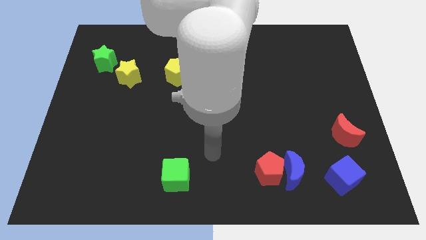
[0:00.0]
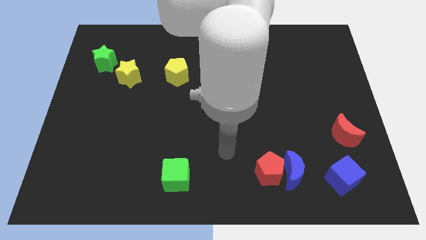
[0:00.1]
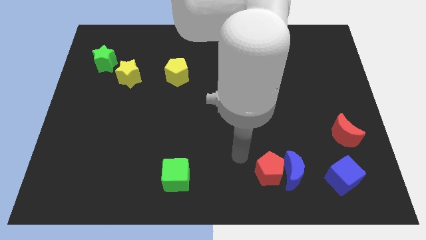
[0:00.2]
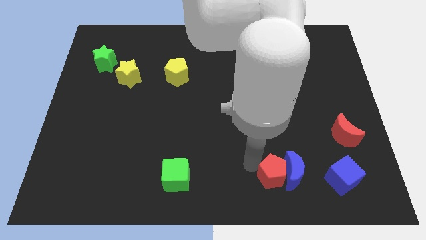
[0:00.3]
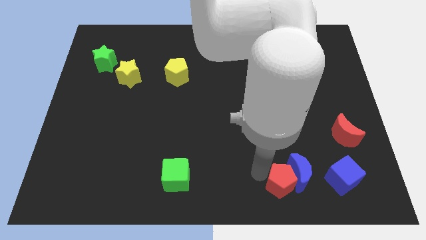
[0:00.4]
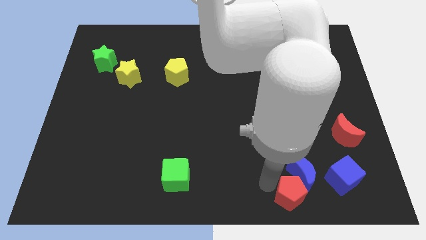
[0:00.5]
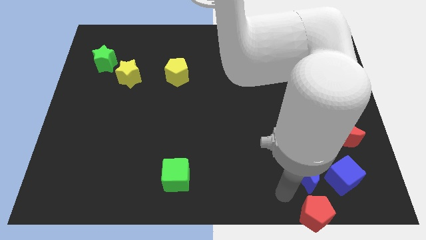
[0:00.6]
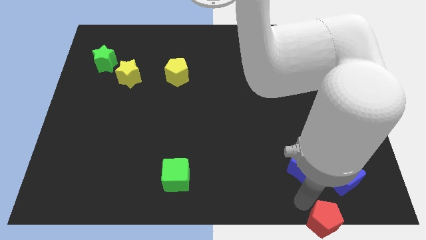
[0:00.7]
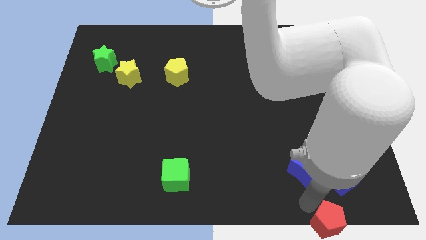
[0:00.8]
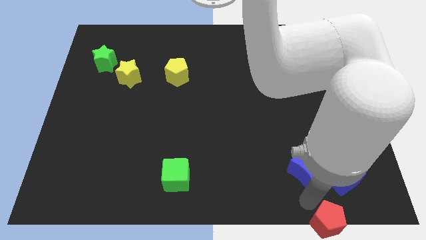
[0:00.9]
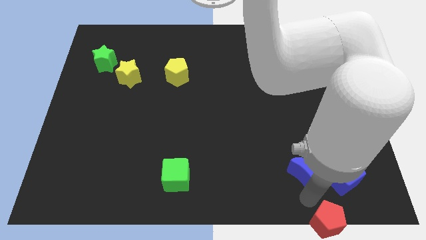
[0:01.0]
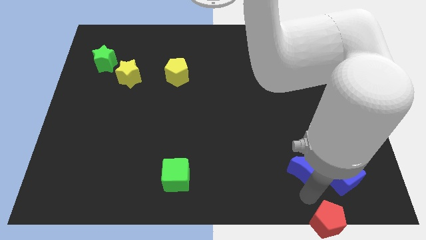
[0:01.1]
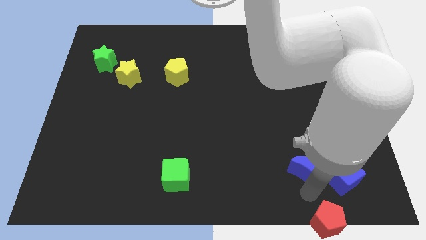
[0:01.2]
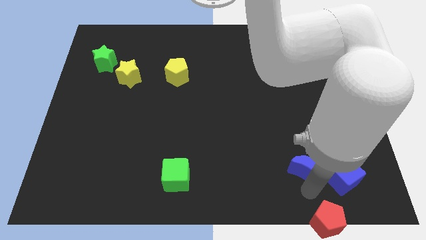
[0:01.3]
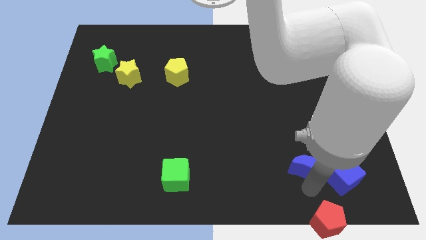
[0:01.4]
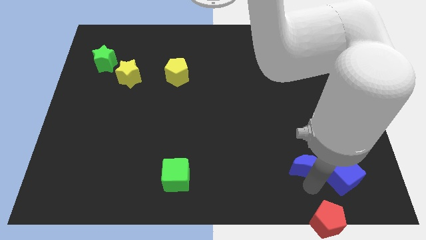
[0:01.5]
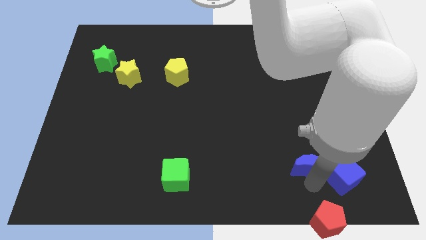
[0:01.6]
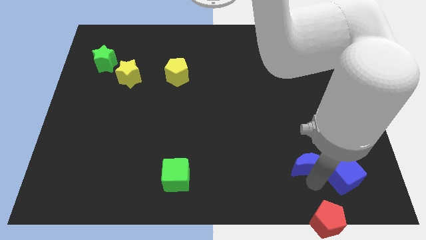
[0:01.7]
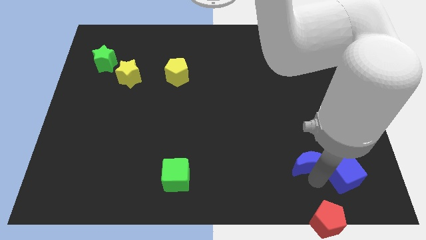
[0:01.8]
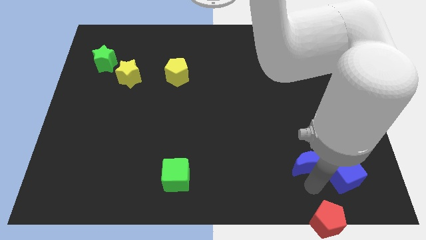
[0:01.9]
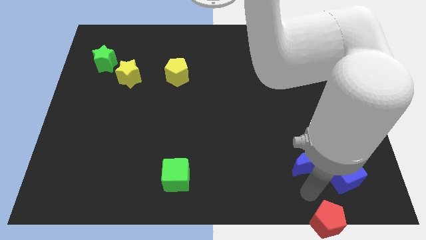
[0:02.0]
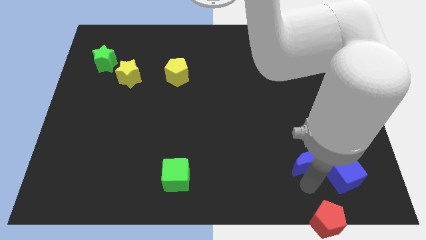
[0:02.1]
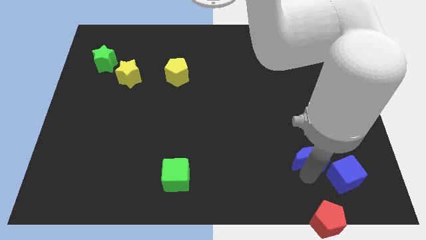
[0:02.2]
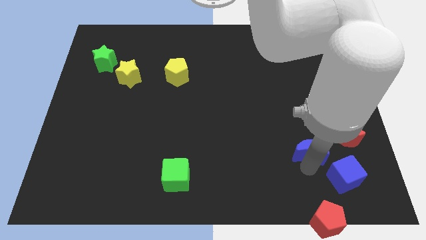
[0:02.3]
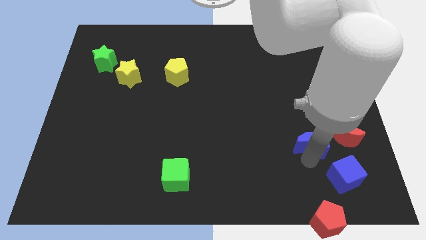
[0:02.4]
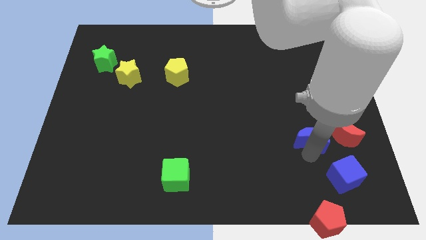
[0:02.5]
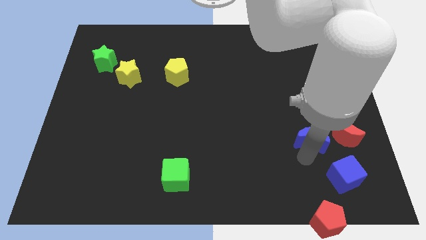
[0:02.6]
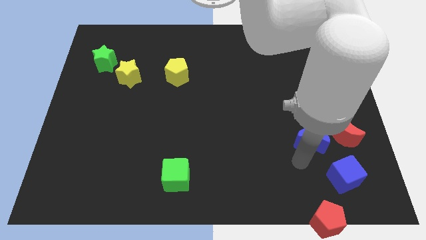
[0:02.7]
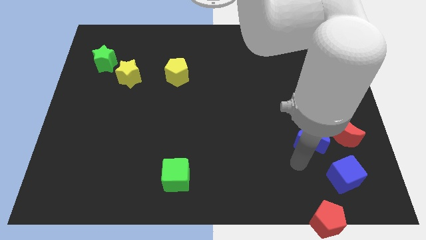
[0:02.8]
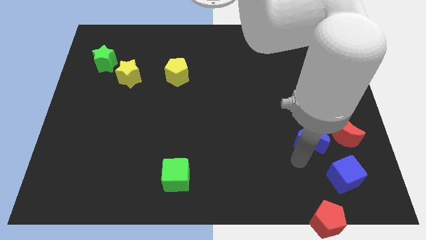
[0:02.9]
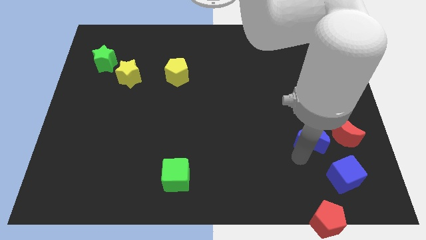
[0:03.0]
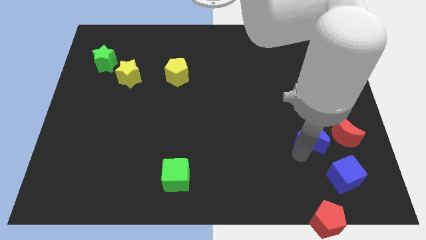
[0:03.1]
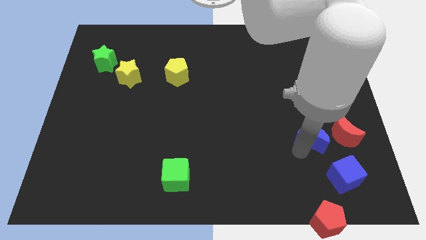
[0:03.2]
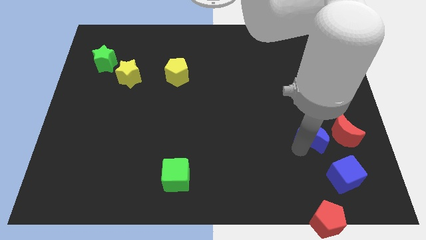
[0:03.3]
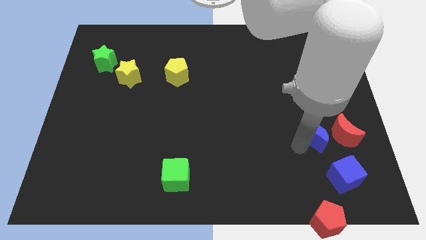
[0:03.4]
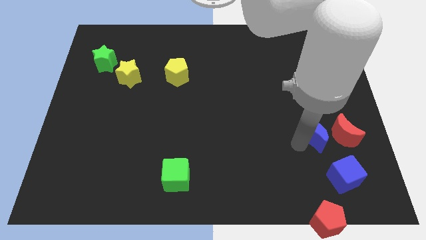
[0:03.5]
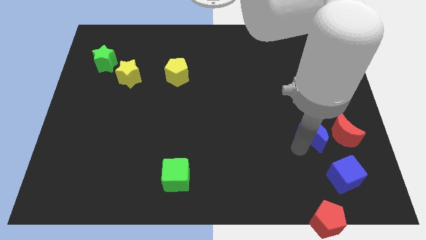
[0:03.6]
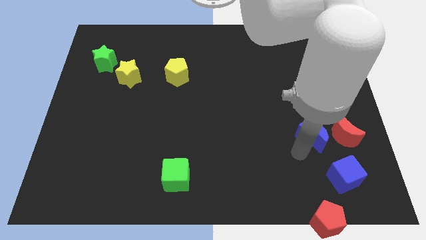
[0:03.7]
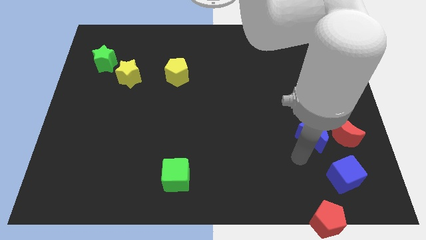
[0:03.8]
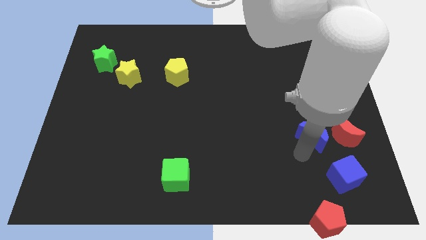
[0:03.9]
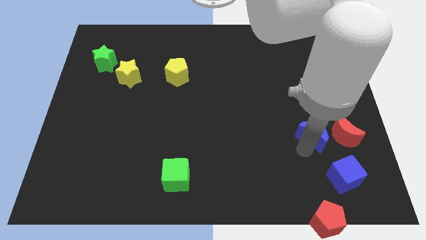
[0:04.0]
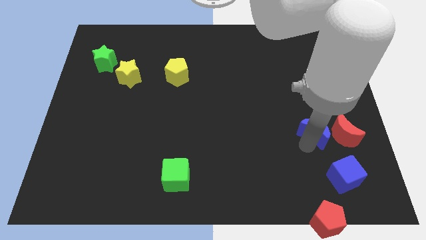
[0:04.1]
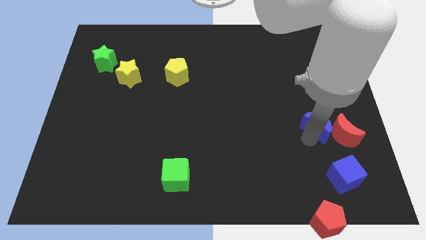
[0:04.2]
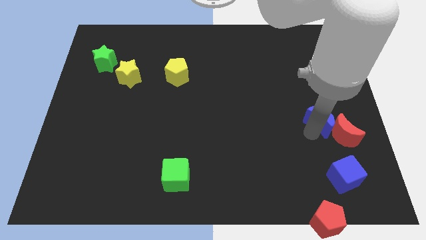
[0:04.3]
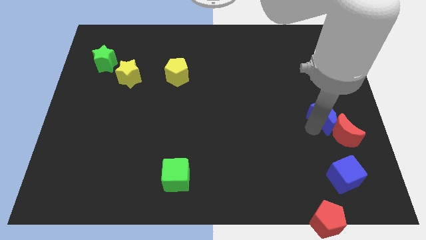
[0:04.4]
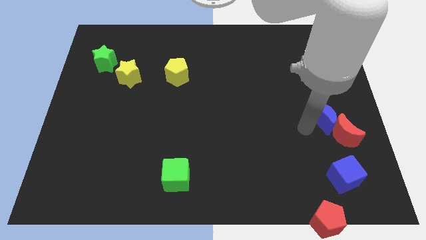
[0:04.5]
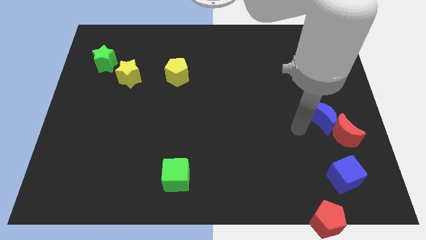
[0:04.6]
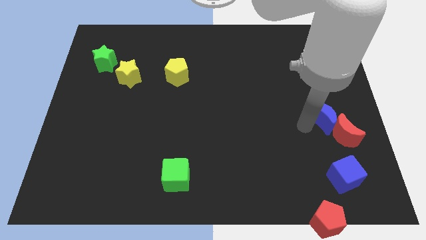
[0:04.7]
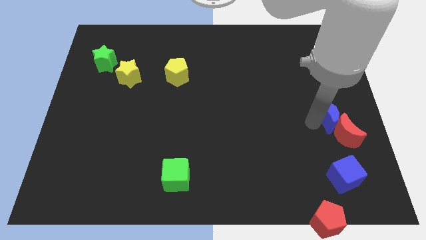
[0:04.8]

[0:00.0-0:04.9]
move the blue moon to the center right

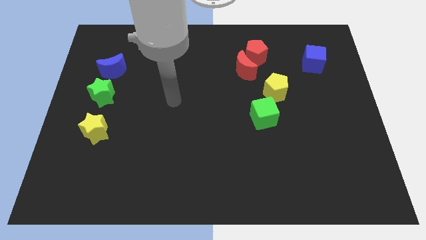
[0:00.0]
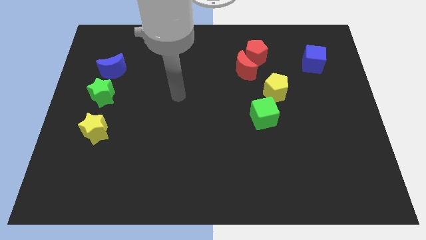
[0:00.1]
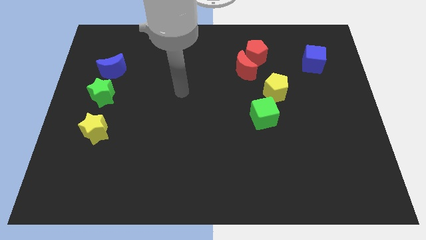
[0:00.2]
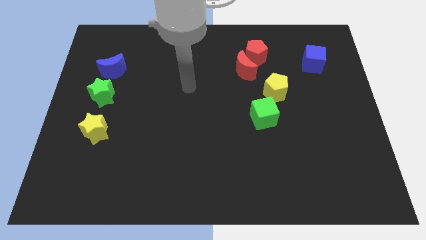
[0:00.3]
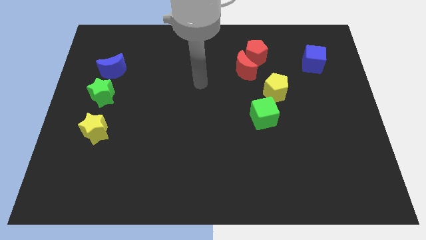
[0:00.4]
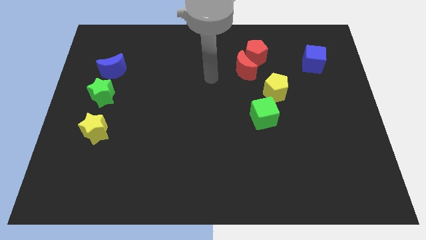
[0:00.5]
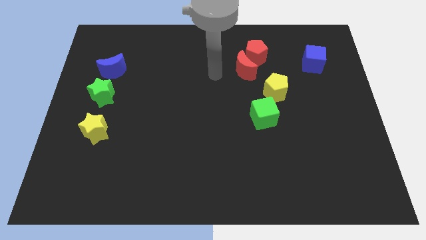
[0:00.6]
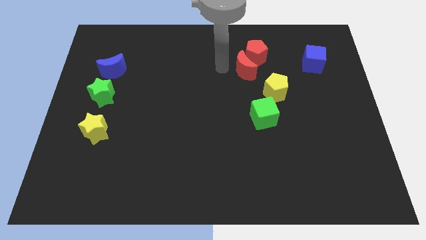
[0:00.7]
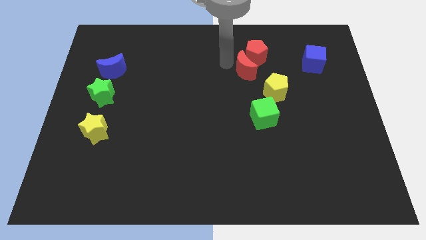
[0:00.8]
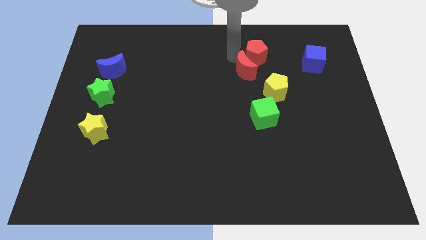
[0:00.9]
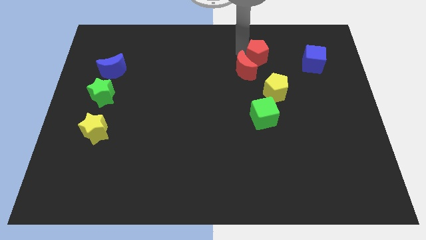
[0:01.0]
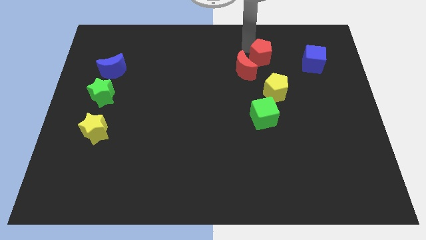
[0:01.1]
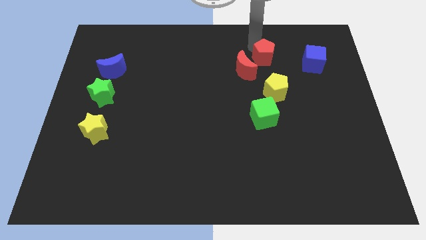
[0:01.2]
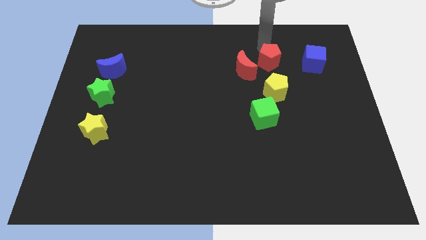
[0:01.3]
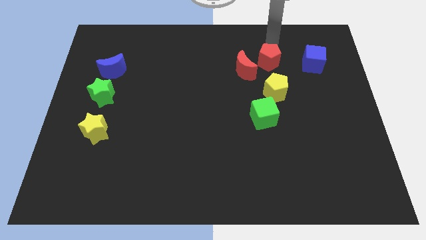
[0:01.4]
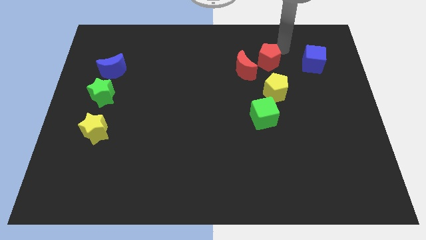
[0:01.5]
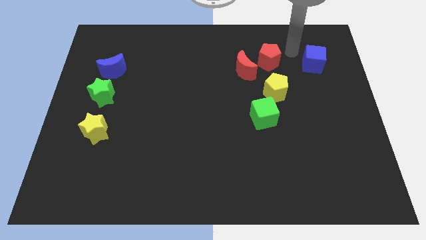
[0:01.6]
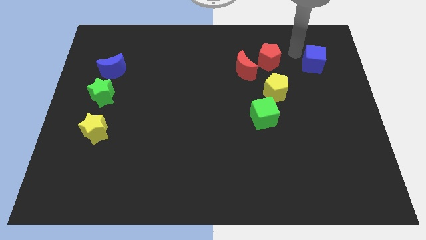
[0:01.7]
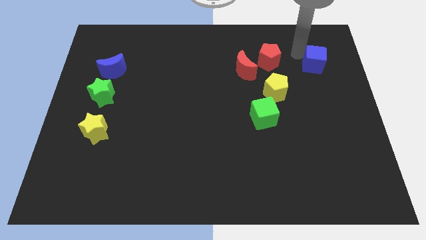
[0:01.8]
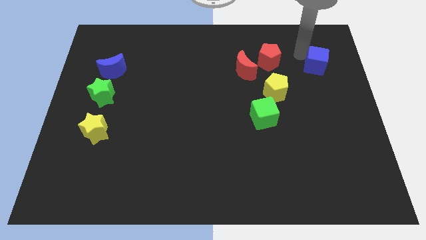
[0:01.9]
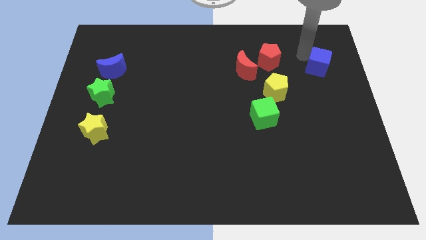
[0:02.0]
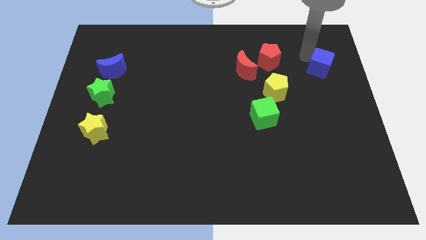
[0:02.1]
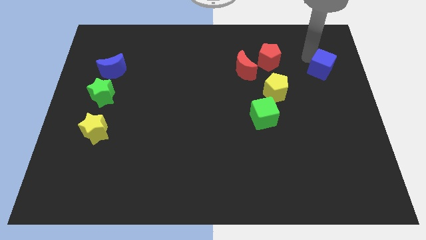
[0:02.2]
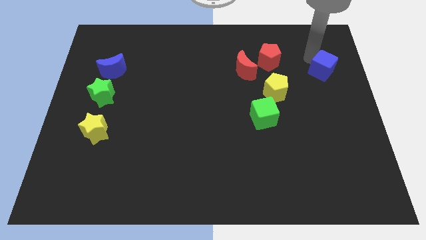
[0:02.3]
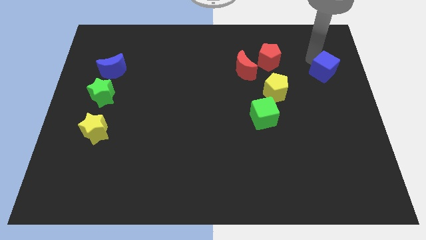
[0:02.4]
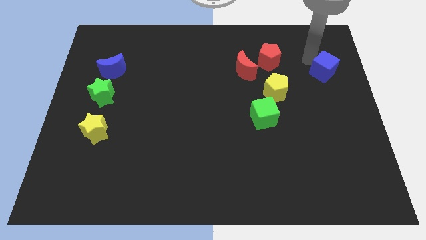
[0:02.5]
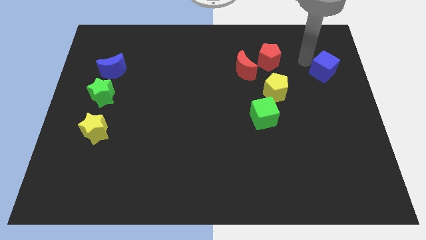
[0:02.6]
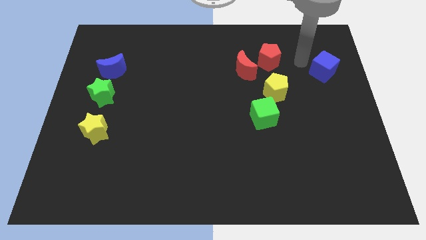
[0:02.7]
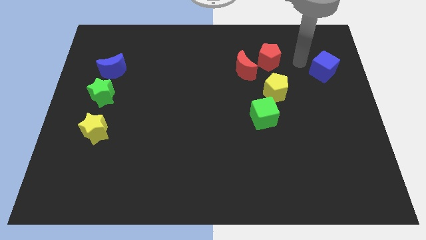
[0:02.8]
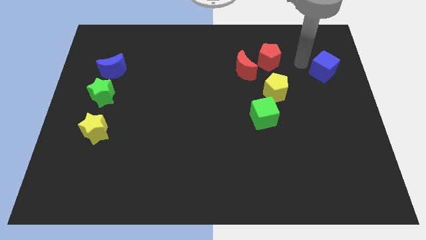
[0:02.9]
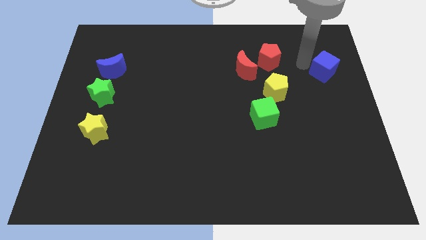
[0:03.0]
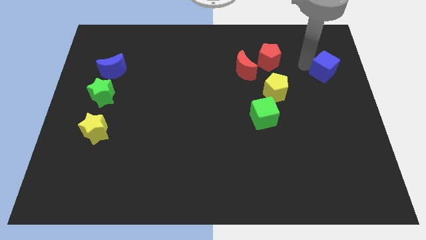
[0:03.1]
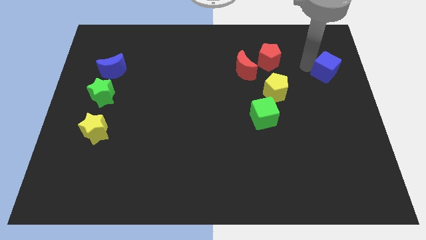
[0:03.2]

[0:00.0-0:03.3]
move the blue cube to the center right
